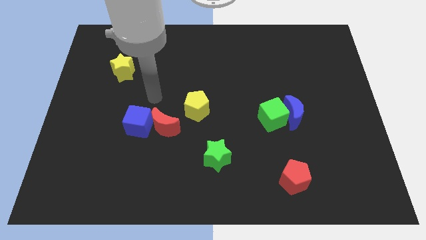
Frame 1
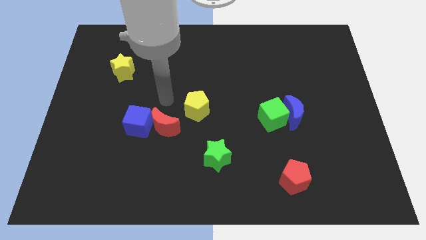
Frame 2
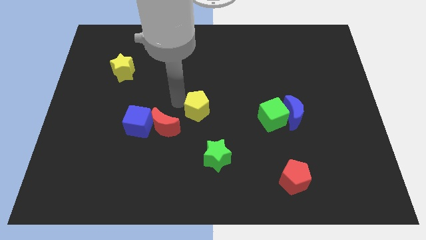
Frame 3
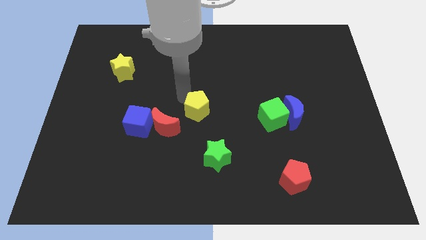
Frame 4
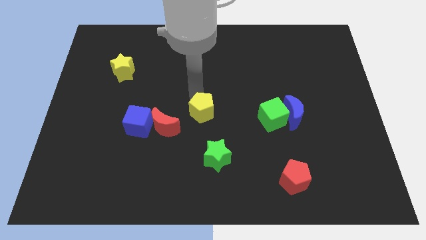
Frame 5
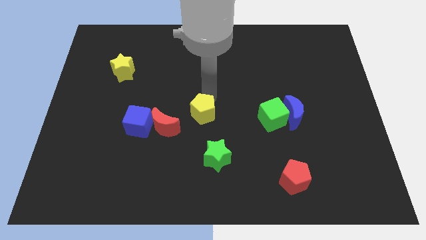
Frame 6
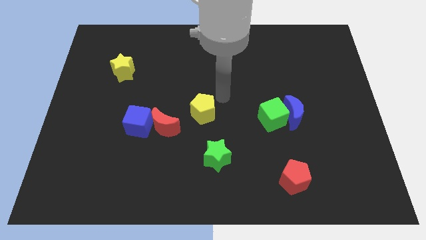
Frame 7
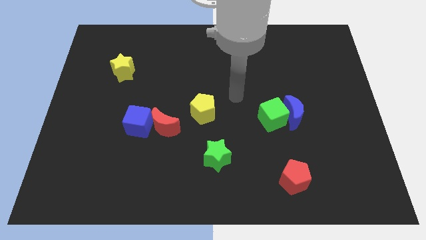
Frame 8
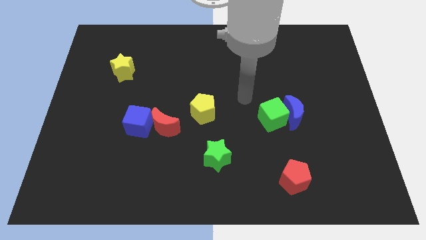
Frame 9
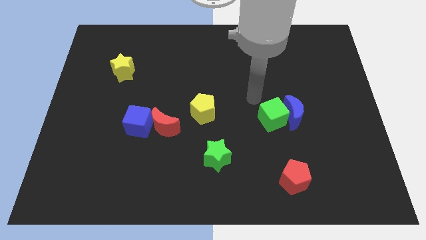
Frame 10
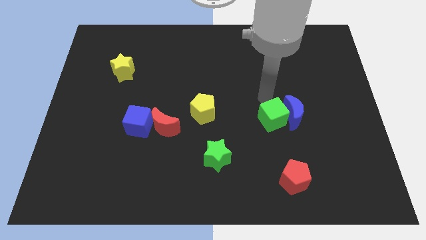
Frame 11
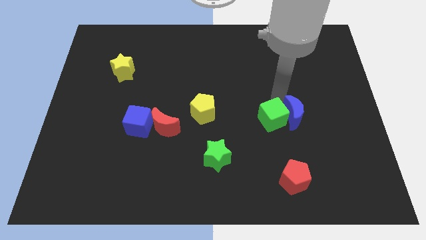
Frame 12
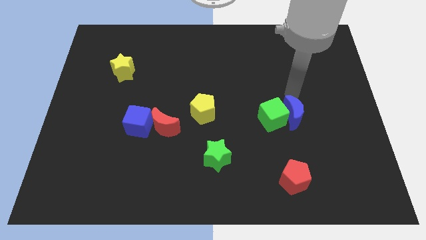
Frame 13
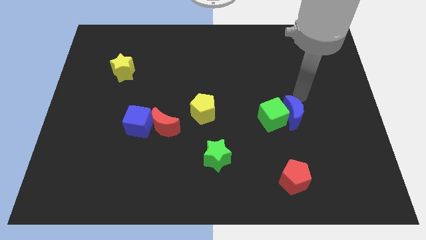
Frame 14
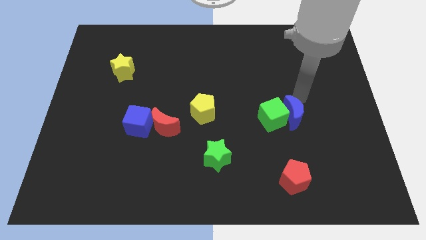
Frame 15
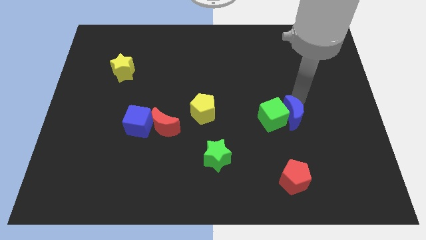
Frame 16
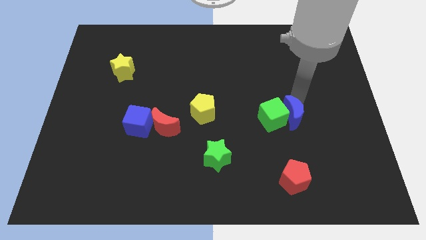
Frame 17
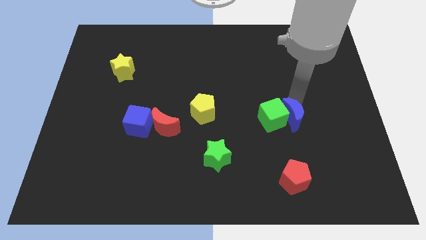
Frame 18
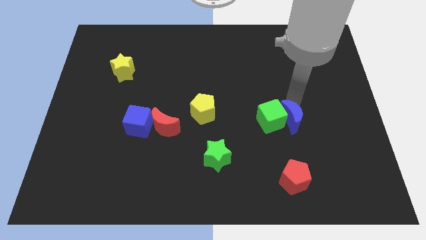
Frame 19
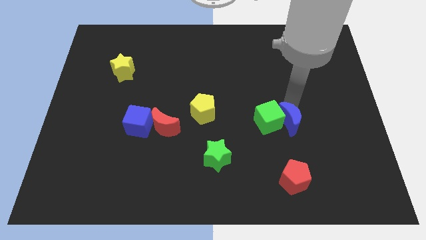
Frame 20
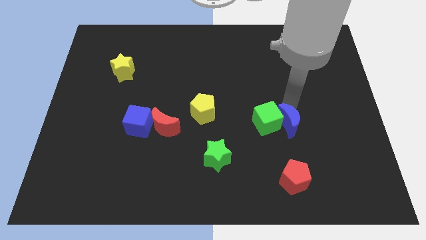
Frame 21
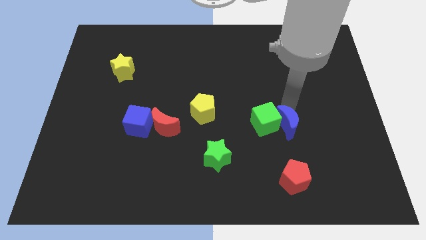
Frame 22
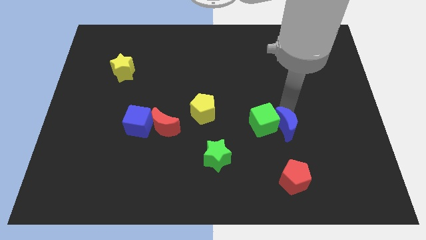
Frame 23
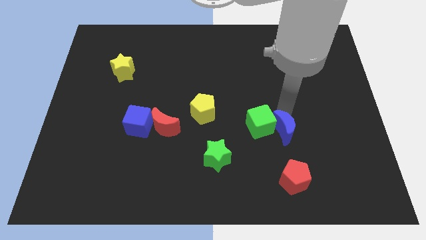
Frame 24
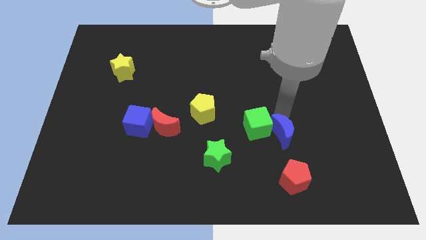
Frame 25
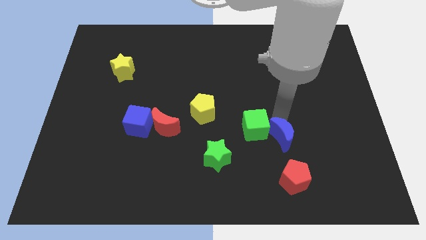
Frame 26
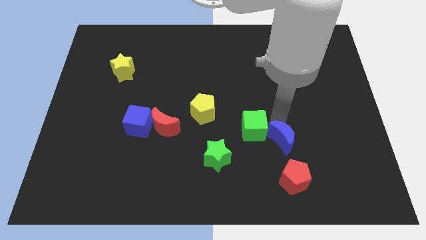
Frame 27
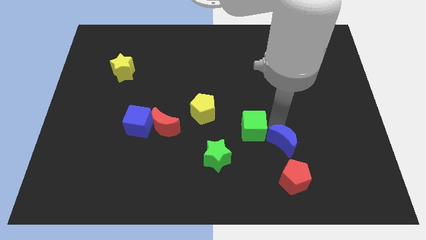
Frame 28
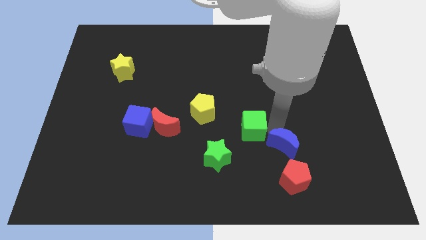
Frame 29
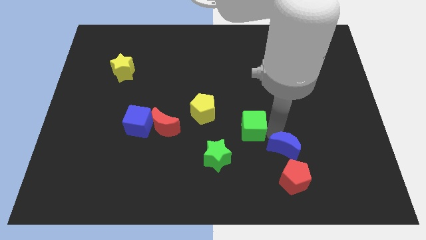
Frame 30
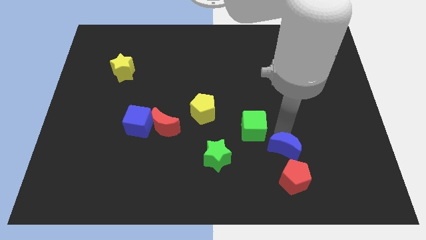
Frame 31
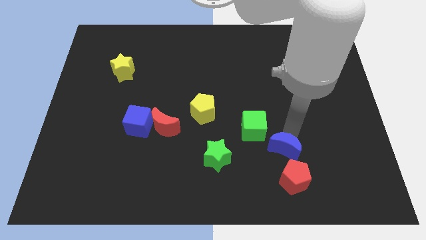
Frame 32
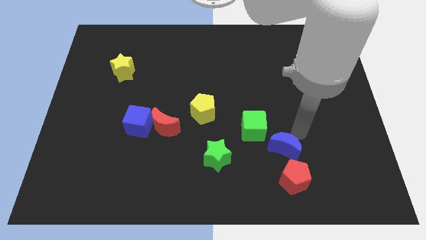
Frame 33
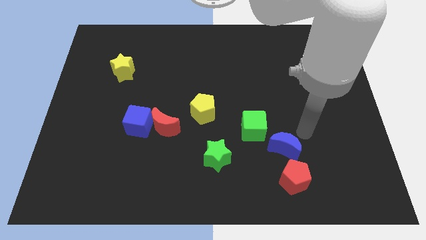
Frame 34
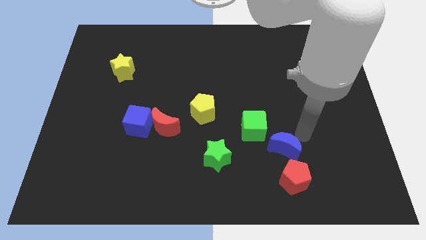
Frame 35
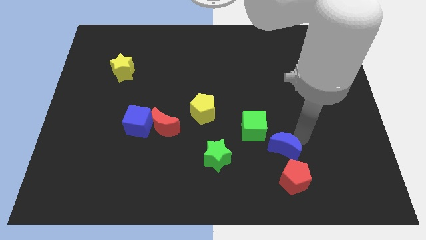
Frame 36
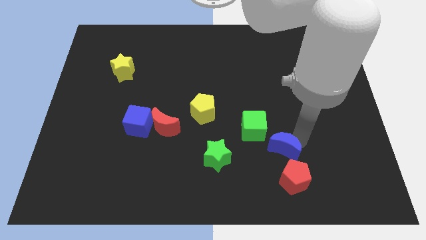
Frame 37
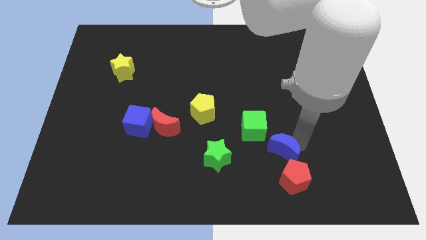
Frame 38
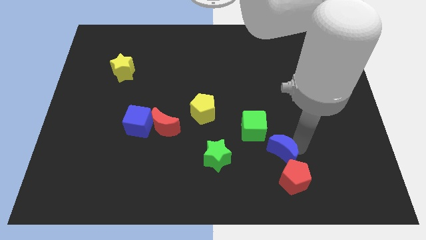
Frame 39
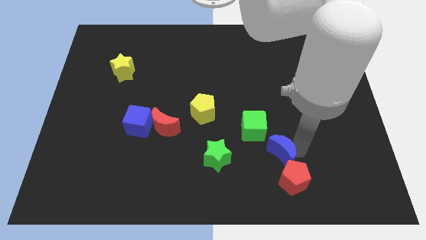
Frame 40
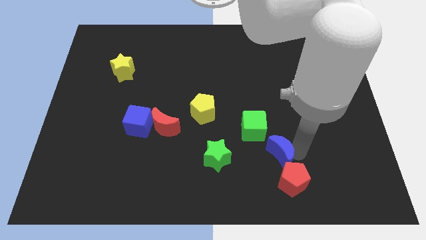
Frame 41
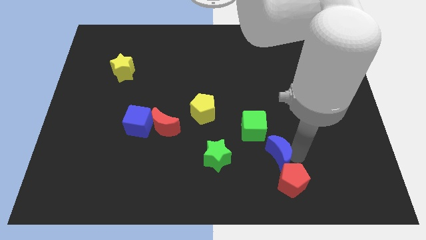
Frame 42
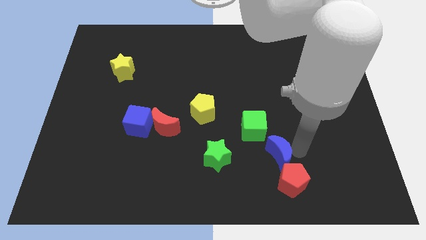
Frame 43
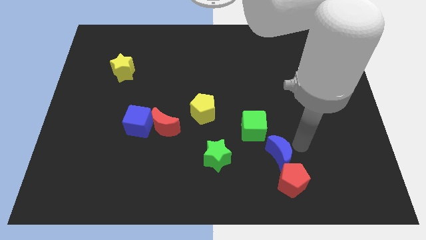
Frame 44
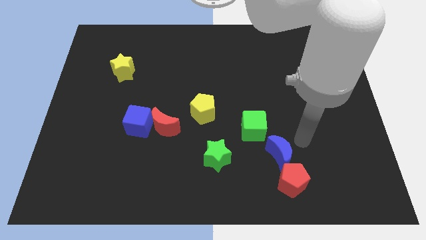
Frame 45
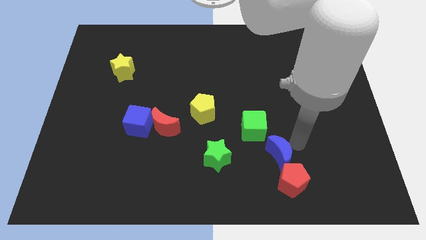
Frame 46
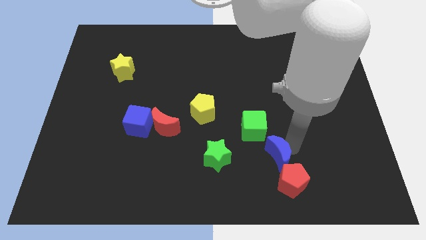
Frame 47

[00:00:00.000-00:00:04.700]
slide the blue moon below the green cube

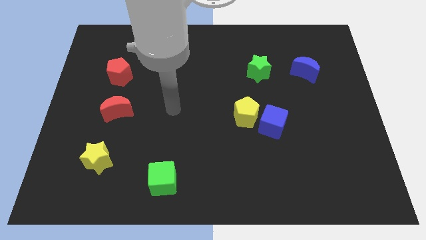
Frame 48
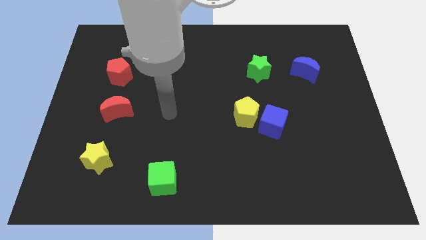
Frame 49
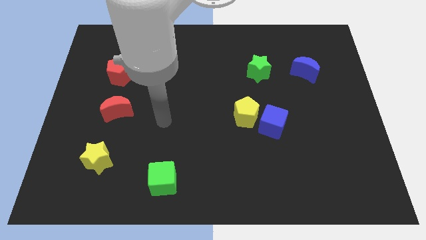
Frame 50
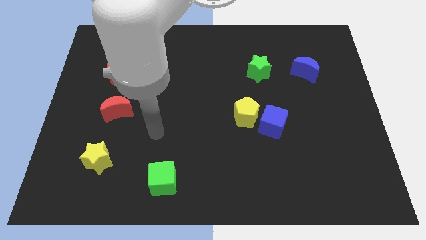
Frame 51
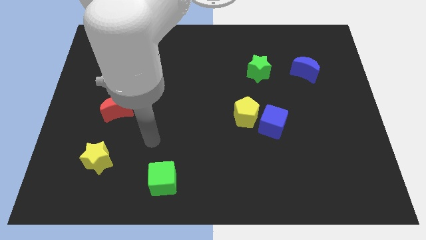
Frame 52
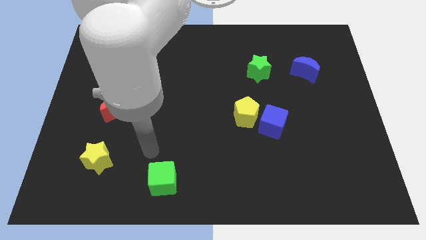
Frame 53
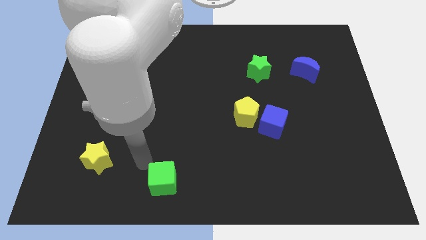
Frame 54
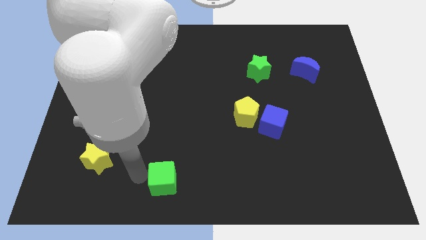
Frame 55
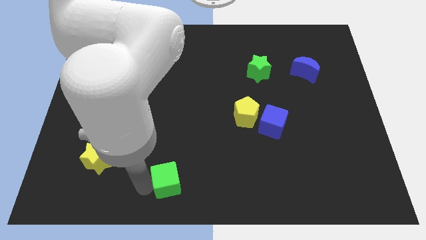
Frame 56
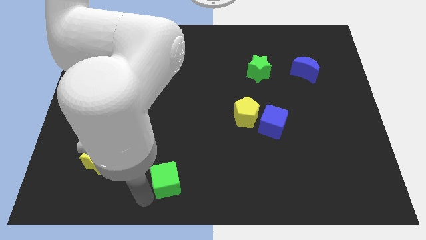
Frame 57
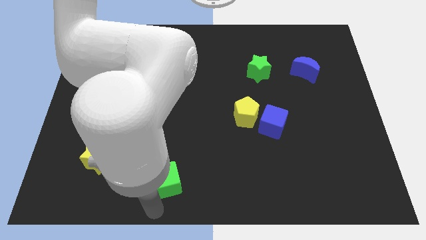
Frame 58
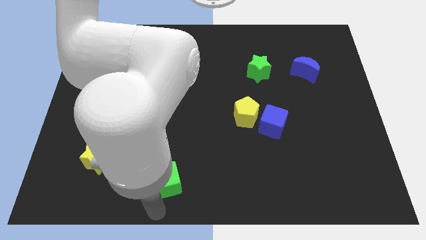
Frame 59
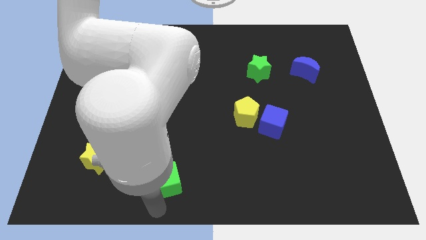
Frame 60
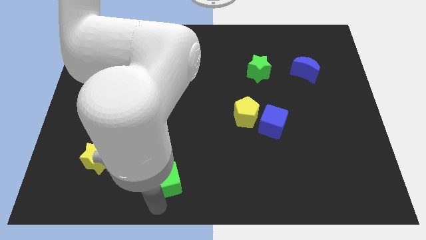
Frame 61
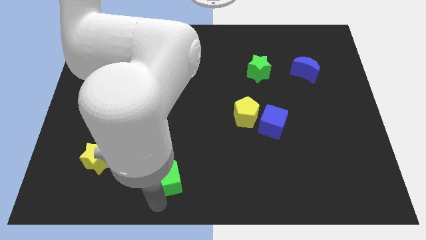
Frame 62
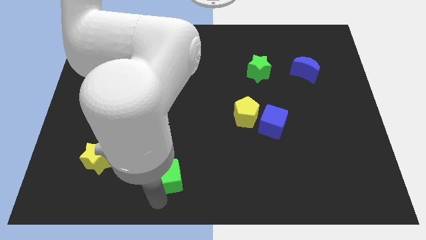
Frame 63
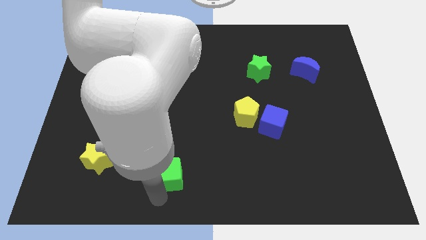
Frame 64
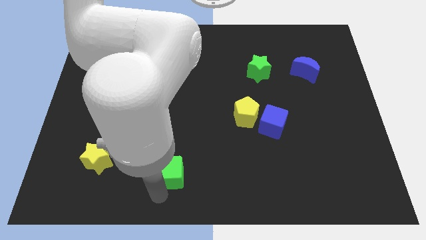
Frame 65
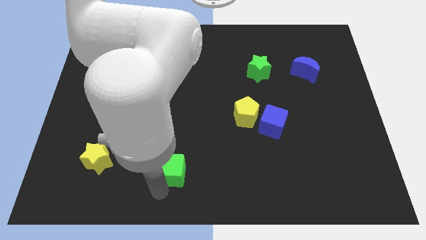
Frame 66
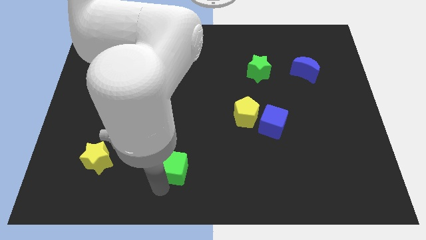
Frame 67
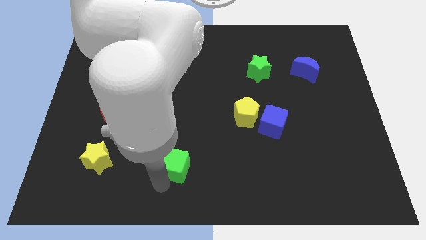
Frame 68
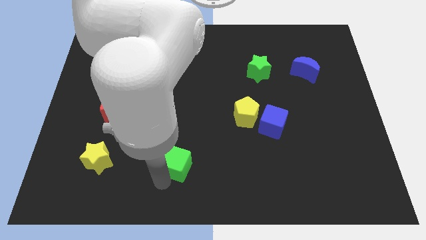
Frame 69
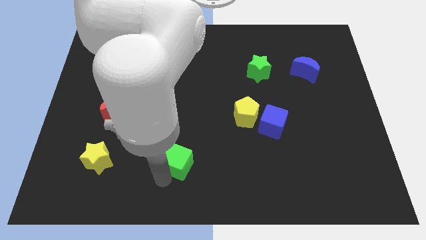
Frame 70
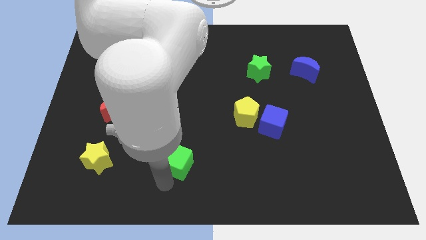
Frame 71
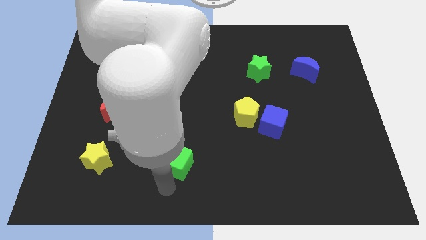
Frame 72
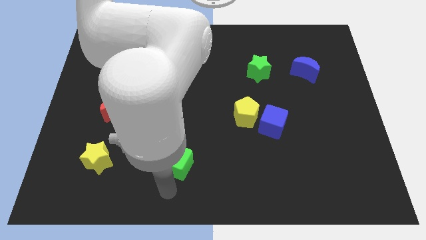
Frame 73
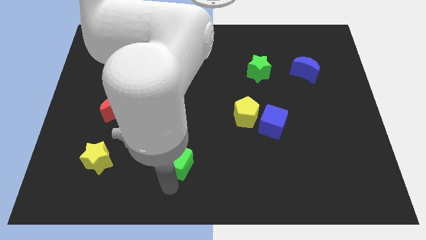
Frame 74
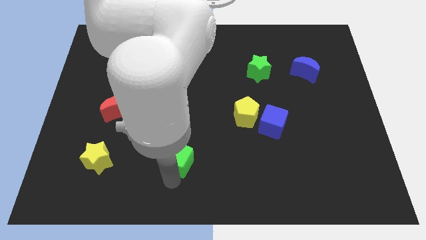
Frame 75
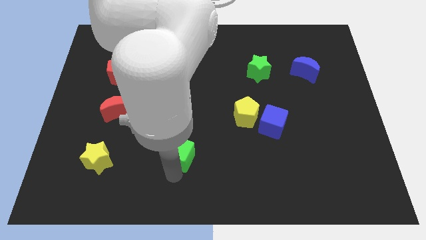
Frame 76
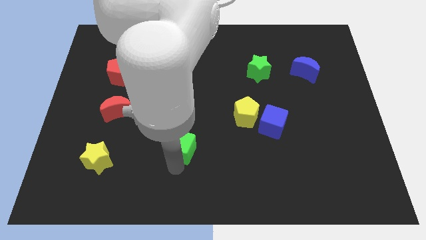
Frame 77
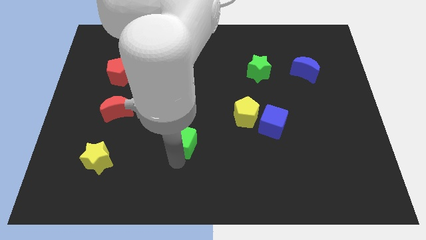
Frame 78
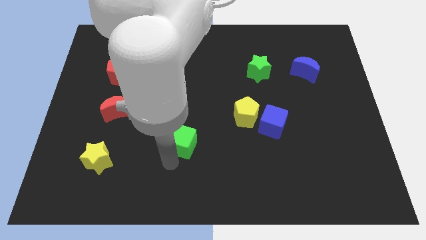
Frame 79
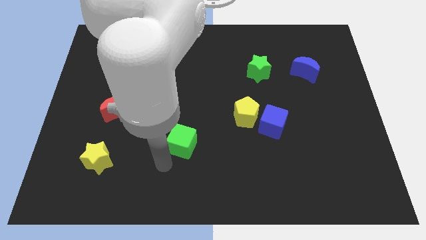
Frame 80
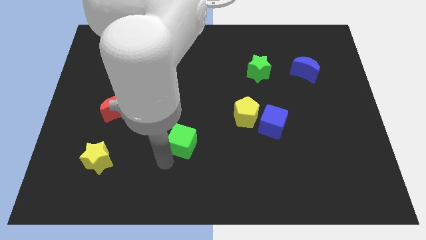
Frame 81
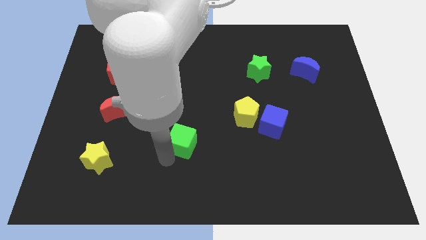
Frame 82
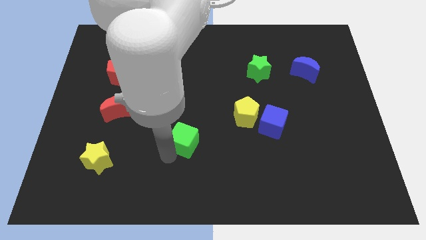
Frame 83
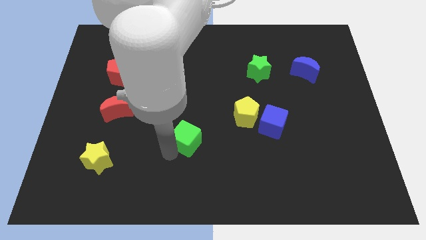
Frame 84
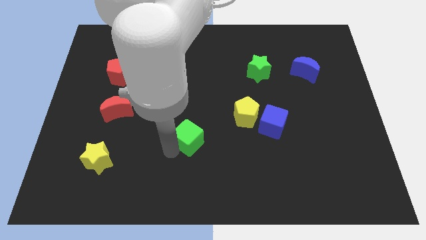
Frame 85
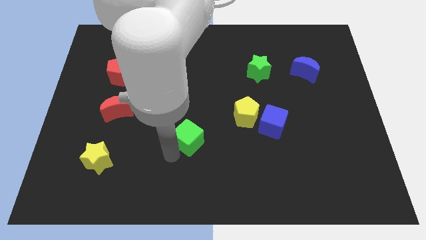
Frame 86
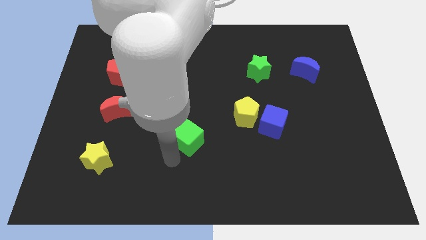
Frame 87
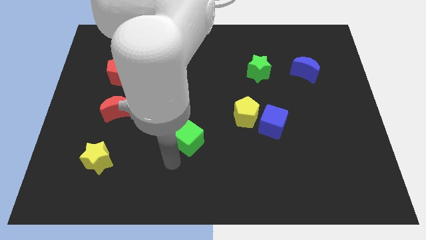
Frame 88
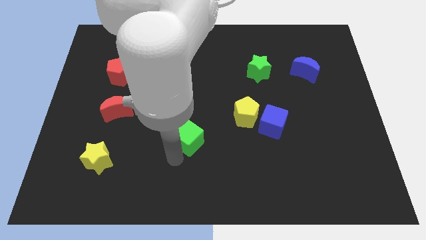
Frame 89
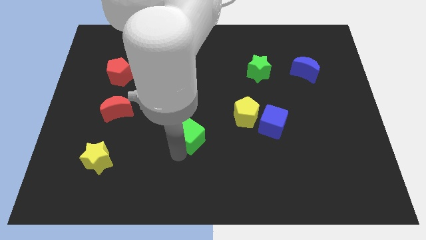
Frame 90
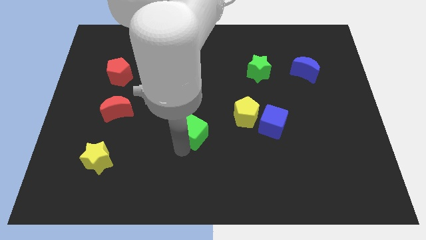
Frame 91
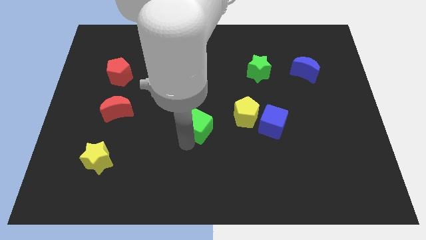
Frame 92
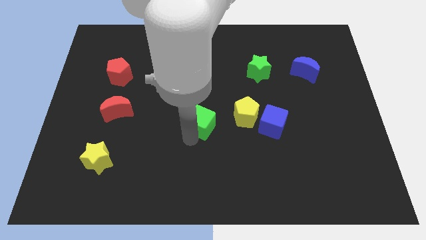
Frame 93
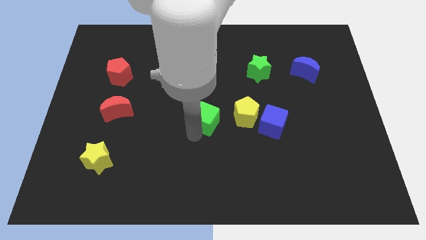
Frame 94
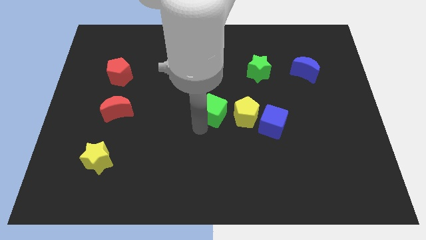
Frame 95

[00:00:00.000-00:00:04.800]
put the green cube diagonally up and to the left of the yellow pentagon
